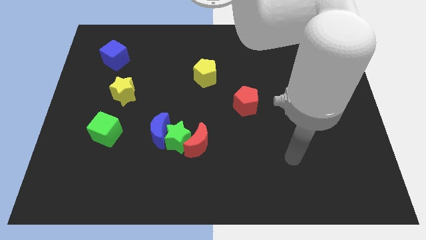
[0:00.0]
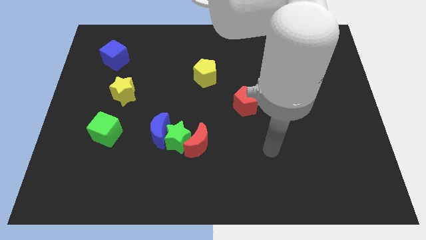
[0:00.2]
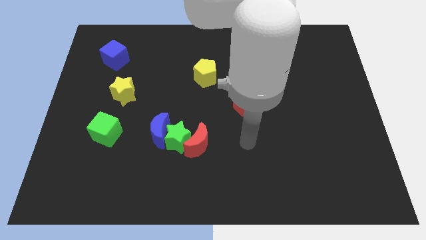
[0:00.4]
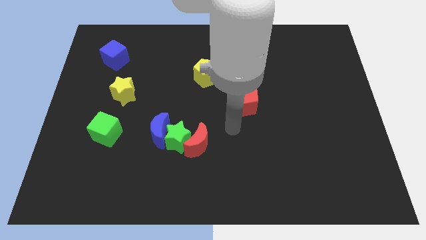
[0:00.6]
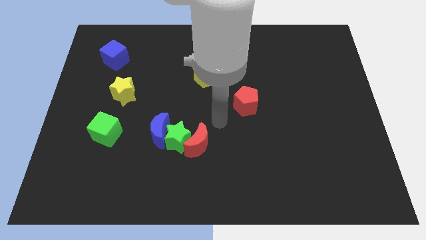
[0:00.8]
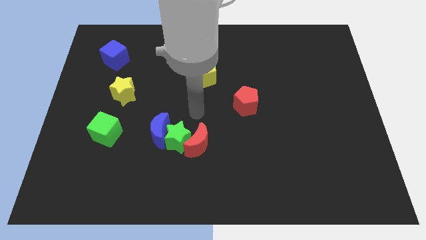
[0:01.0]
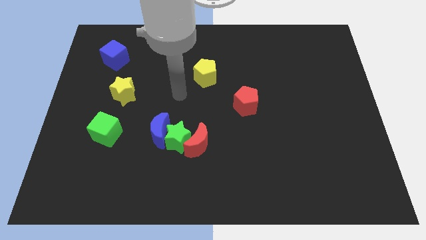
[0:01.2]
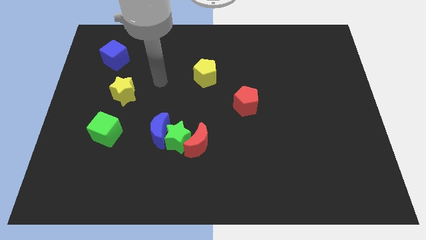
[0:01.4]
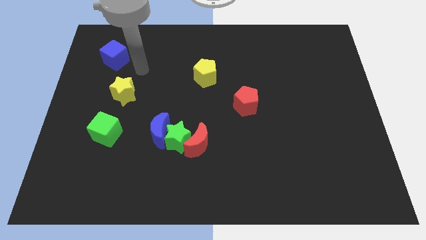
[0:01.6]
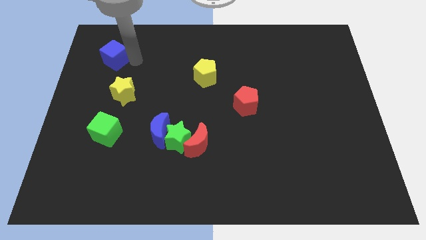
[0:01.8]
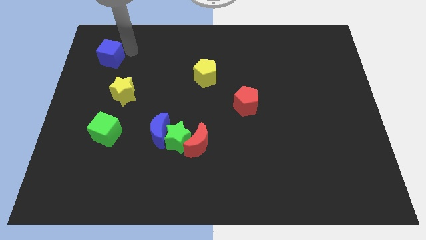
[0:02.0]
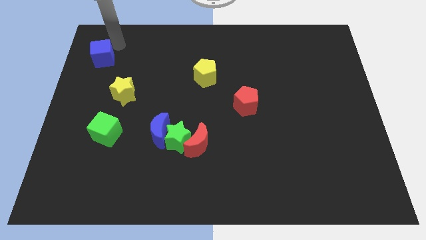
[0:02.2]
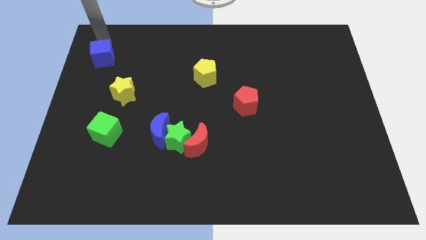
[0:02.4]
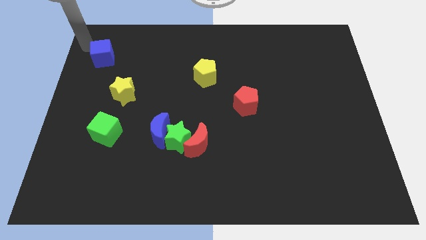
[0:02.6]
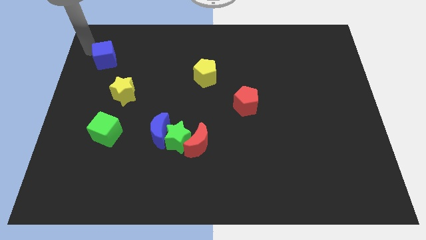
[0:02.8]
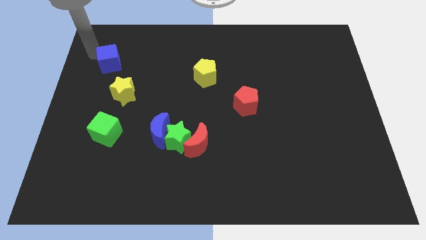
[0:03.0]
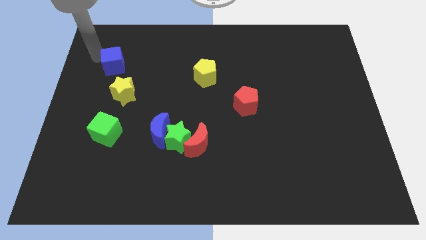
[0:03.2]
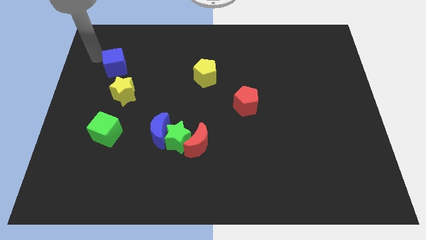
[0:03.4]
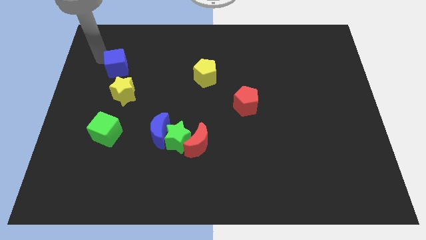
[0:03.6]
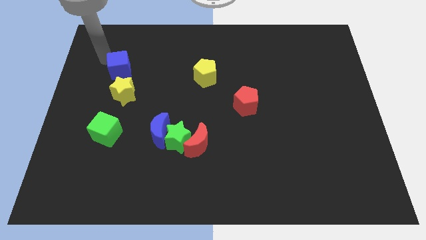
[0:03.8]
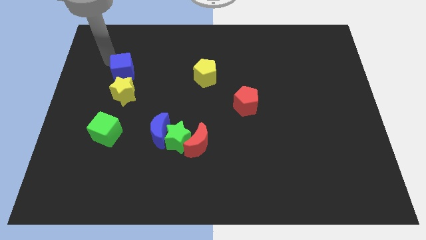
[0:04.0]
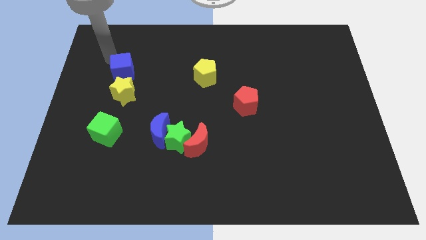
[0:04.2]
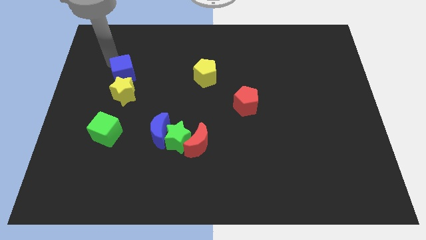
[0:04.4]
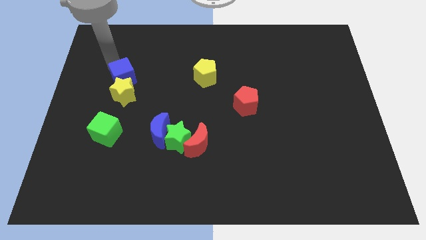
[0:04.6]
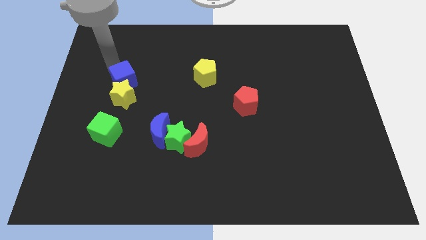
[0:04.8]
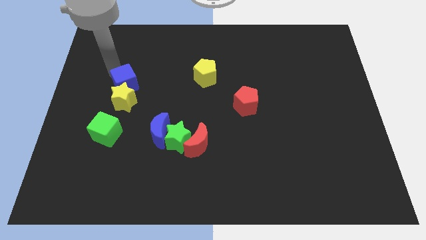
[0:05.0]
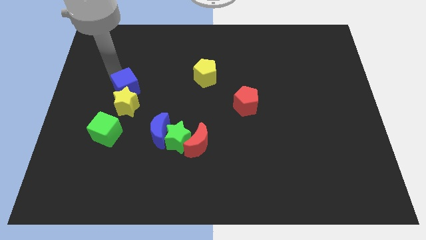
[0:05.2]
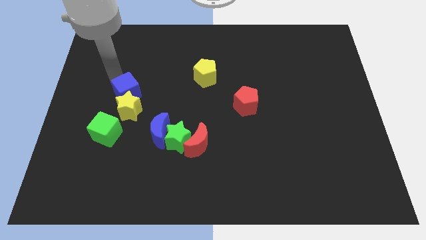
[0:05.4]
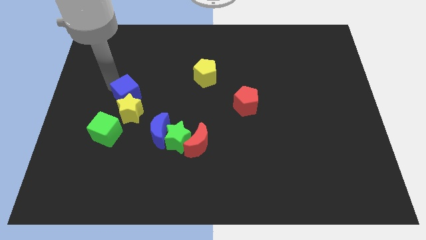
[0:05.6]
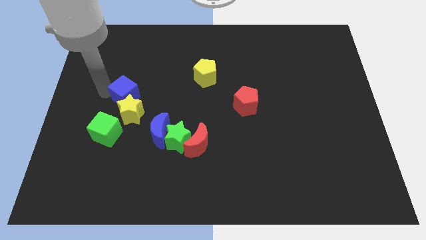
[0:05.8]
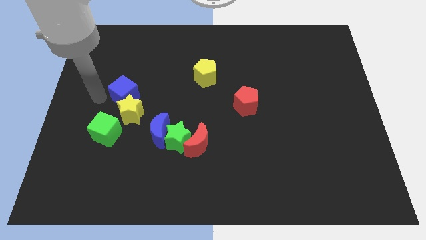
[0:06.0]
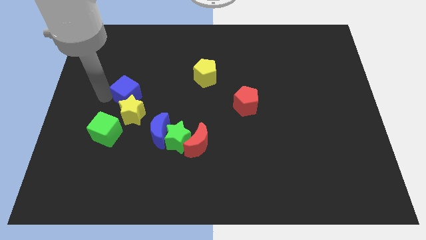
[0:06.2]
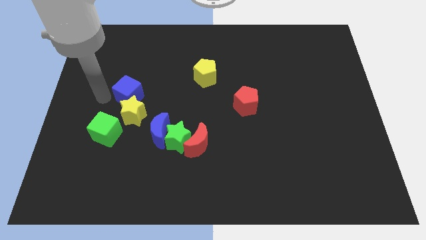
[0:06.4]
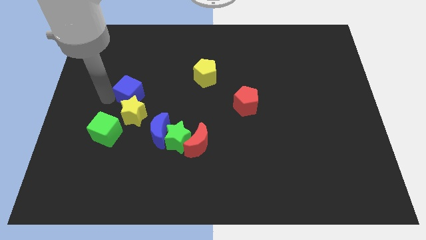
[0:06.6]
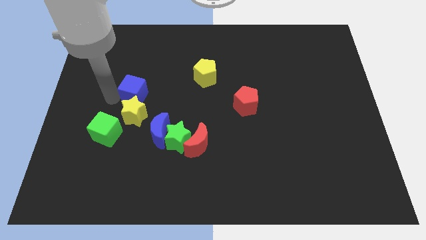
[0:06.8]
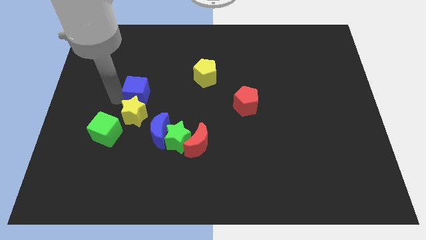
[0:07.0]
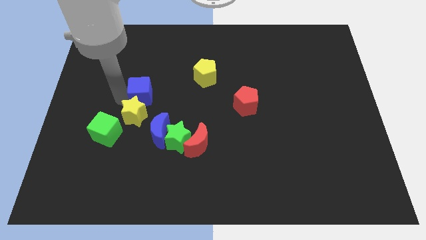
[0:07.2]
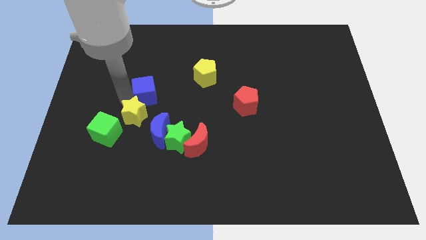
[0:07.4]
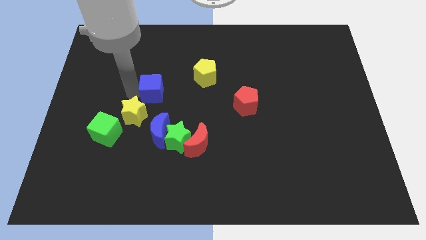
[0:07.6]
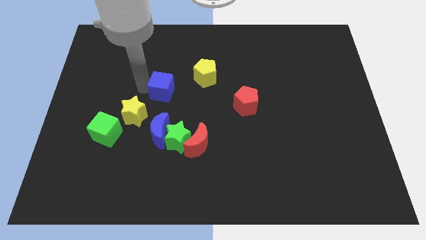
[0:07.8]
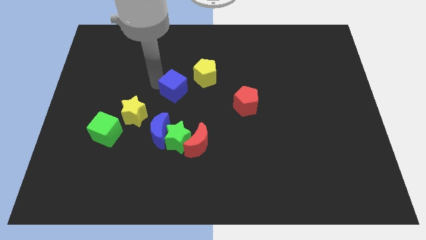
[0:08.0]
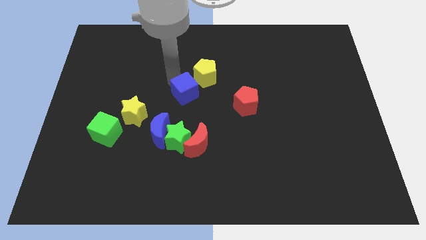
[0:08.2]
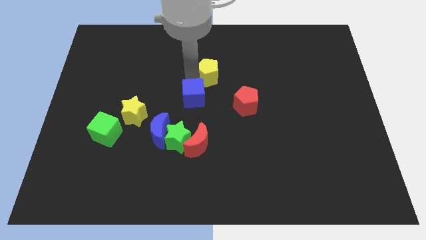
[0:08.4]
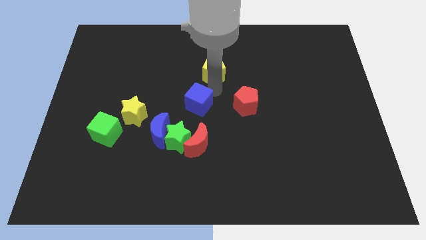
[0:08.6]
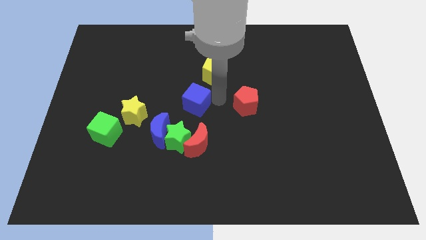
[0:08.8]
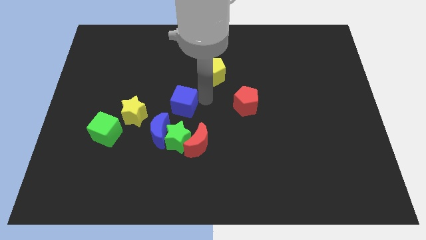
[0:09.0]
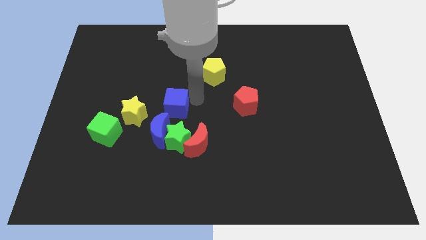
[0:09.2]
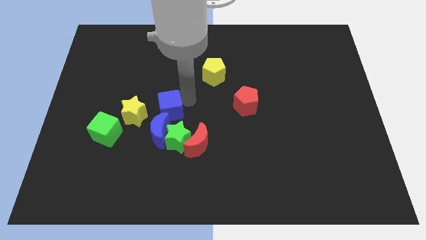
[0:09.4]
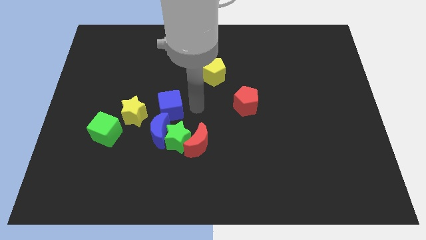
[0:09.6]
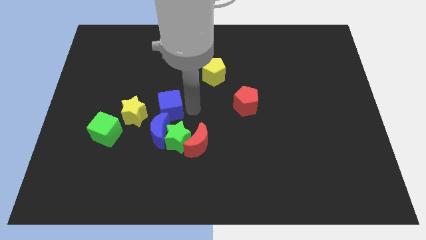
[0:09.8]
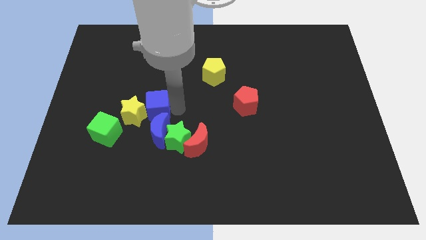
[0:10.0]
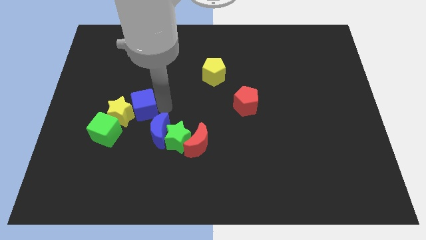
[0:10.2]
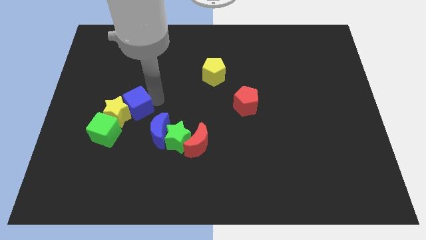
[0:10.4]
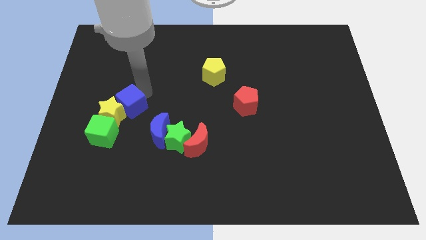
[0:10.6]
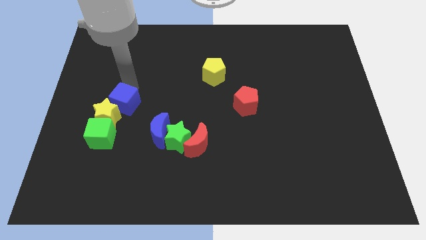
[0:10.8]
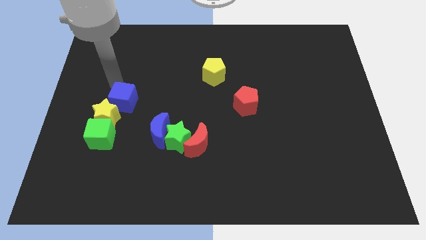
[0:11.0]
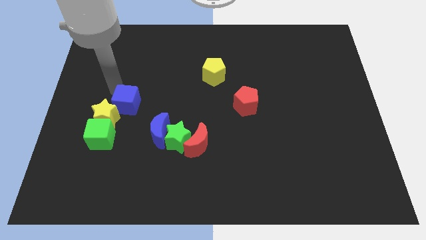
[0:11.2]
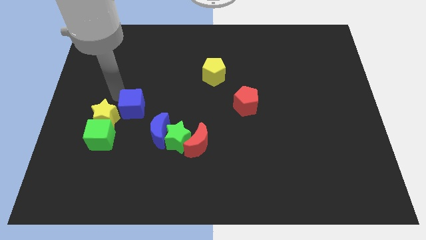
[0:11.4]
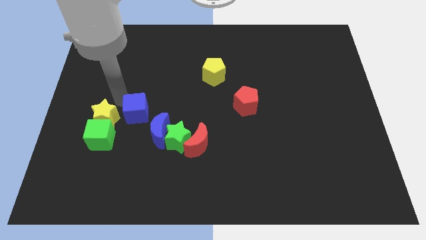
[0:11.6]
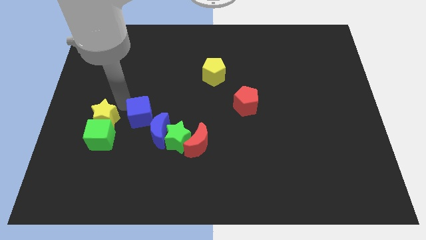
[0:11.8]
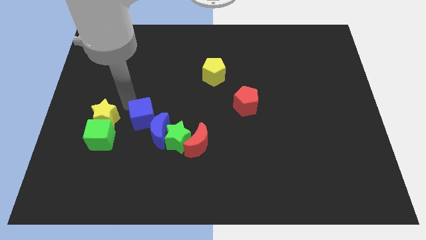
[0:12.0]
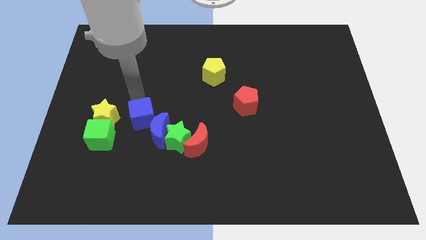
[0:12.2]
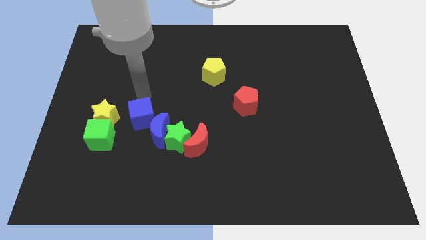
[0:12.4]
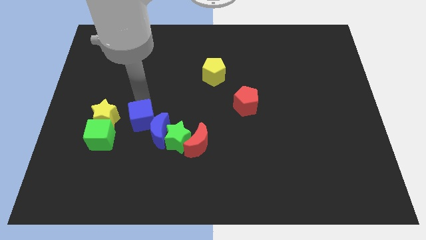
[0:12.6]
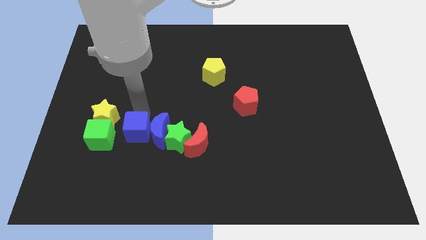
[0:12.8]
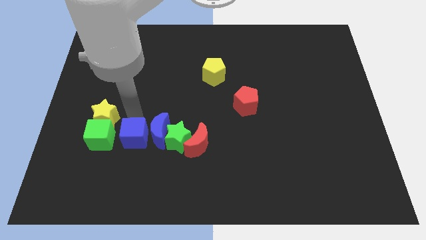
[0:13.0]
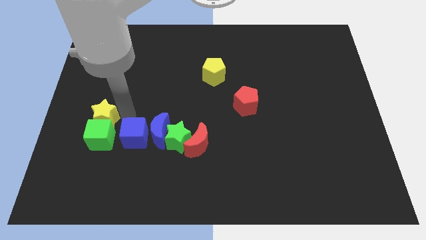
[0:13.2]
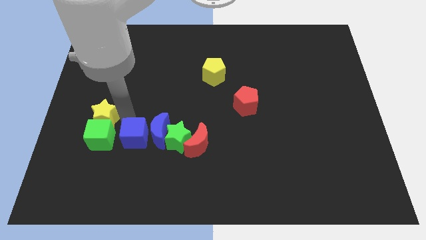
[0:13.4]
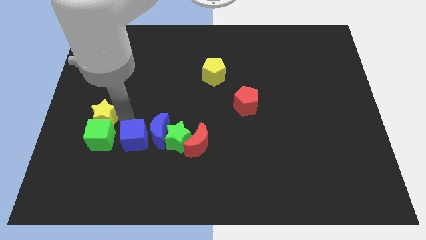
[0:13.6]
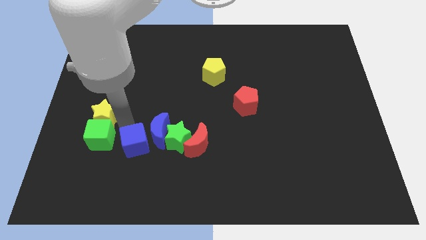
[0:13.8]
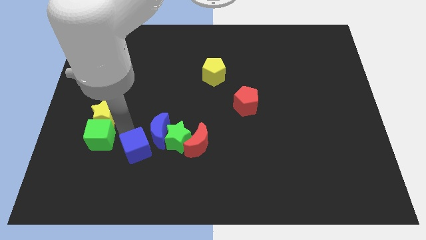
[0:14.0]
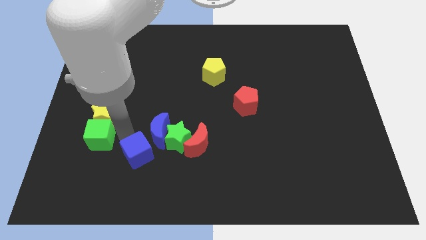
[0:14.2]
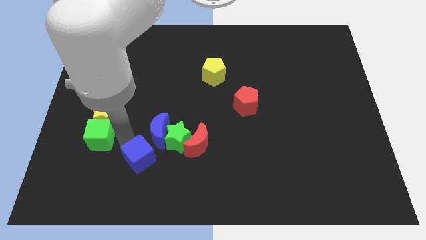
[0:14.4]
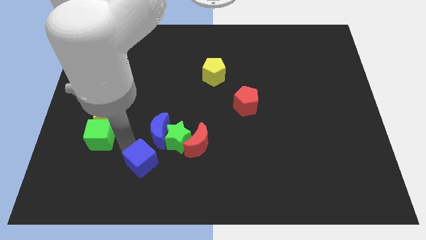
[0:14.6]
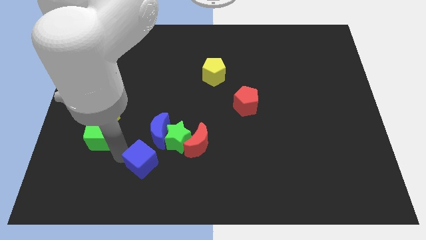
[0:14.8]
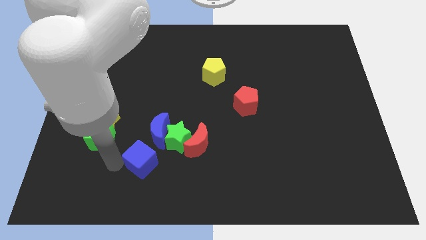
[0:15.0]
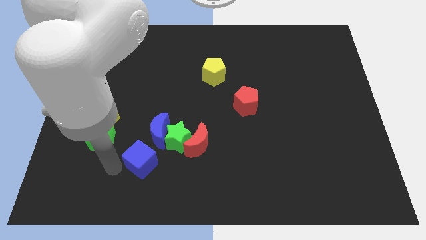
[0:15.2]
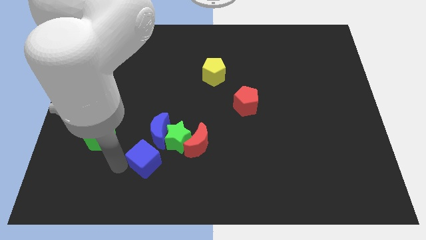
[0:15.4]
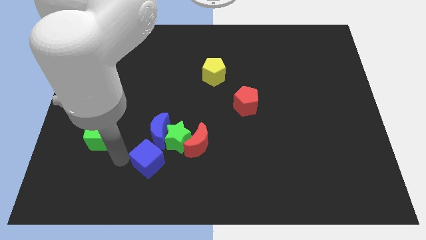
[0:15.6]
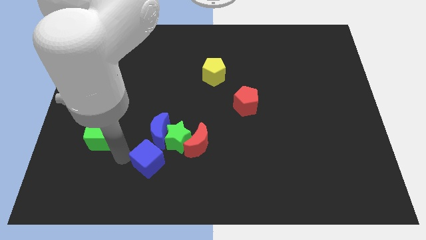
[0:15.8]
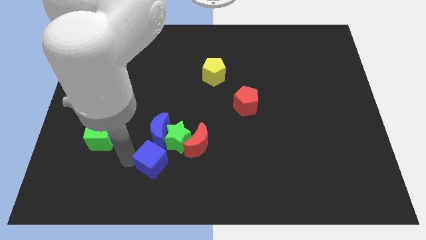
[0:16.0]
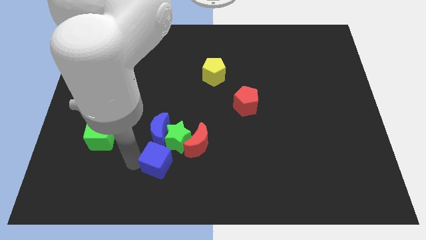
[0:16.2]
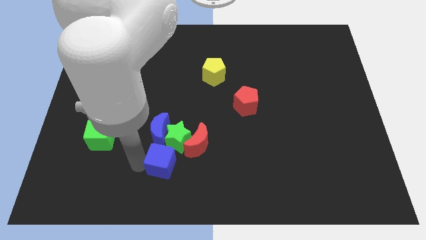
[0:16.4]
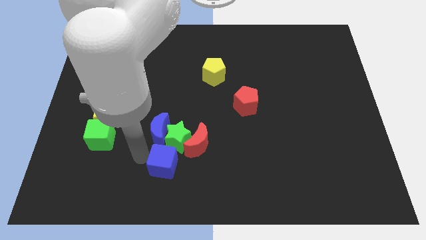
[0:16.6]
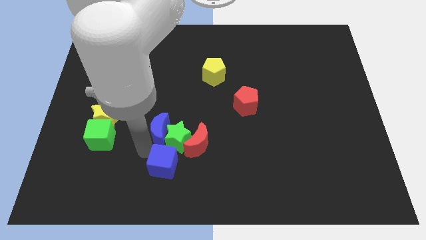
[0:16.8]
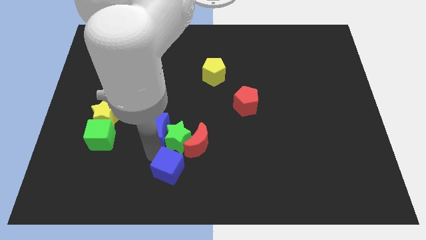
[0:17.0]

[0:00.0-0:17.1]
slide the blue cube to the bottom
